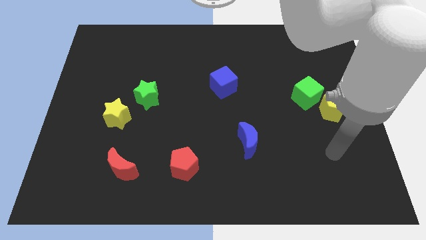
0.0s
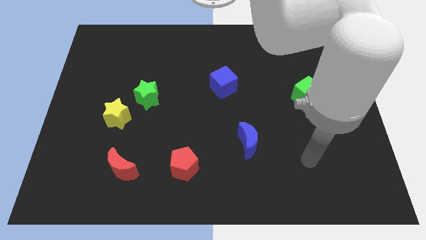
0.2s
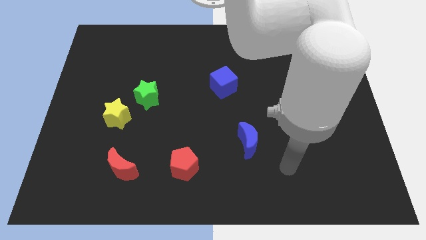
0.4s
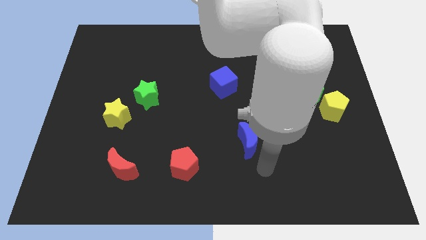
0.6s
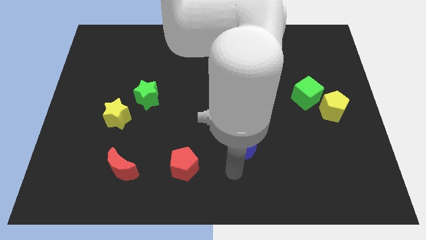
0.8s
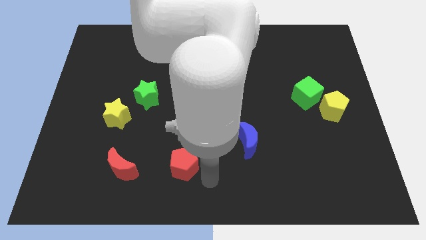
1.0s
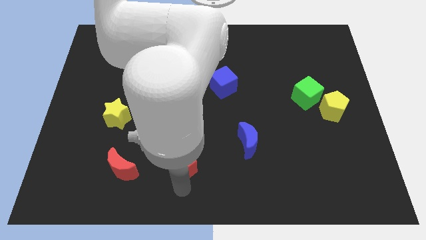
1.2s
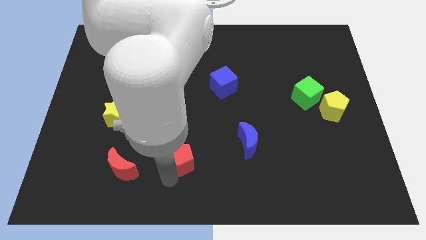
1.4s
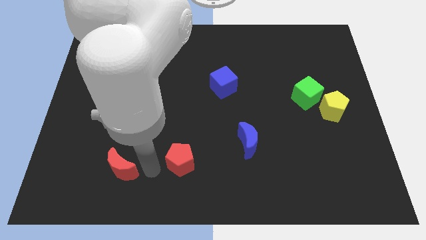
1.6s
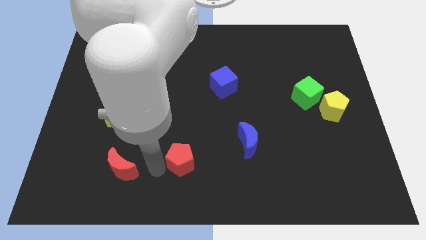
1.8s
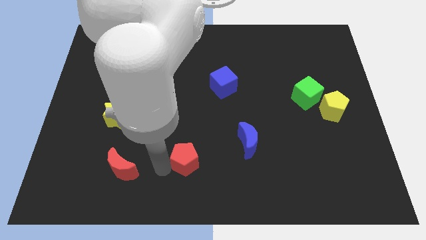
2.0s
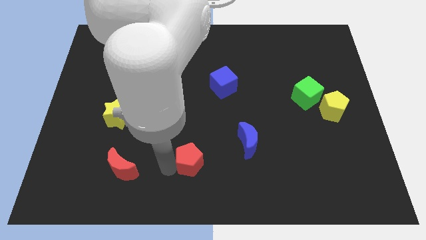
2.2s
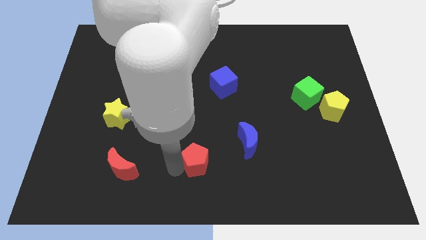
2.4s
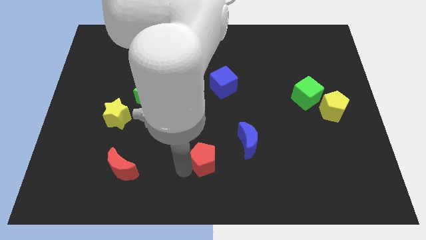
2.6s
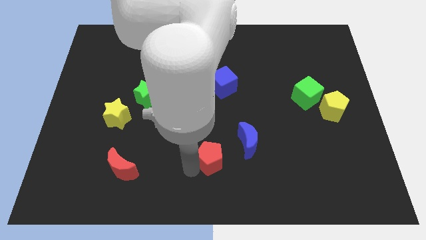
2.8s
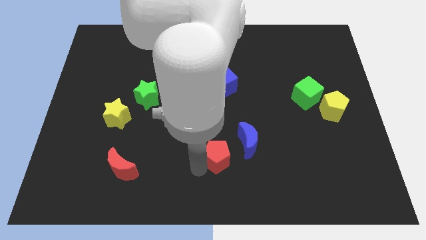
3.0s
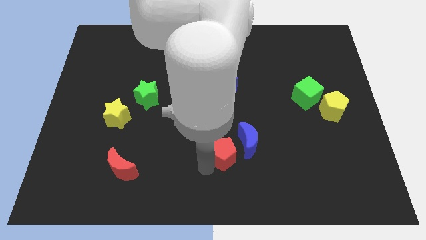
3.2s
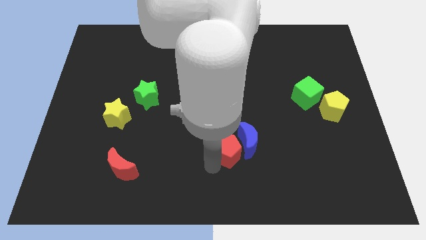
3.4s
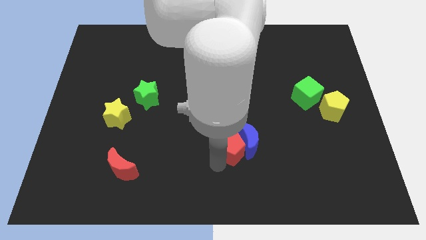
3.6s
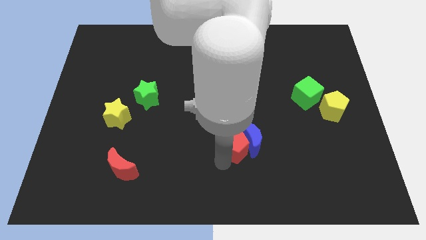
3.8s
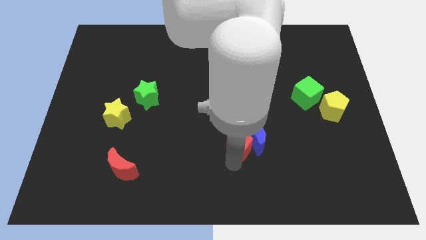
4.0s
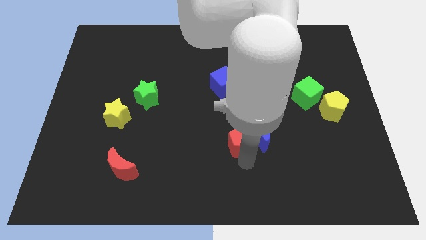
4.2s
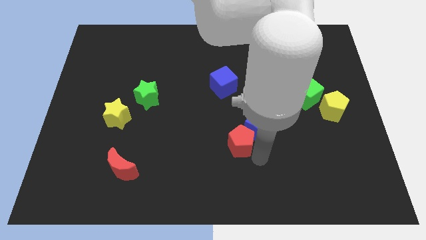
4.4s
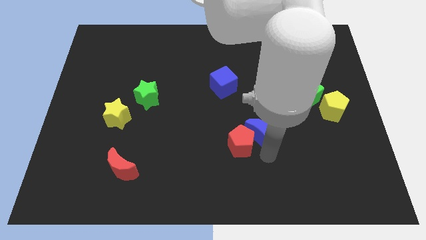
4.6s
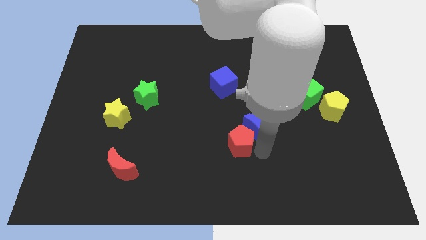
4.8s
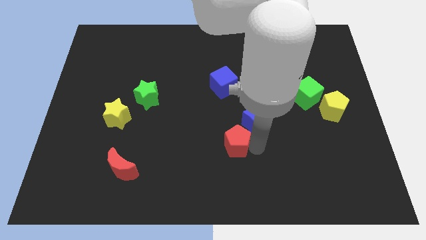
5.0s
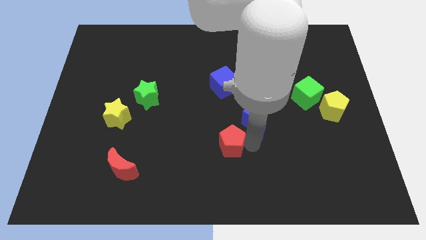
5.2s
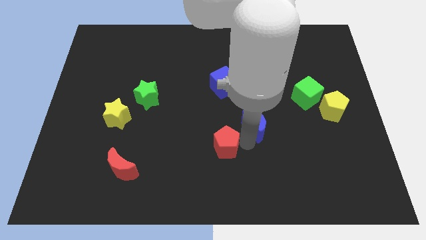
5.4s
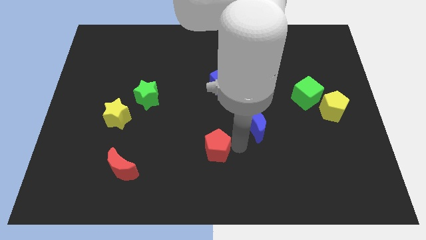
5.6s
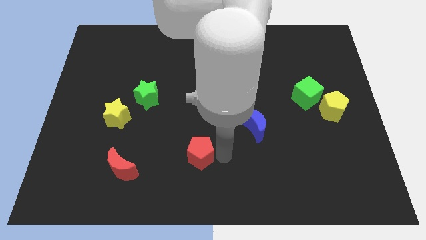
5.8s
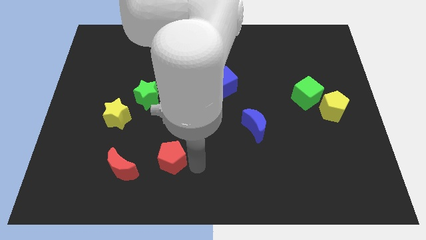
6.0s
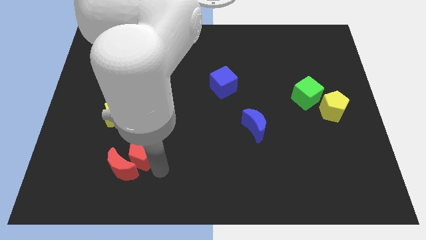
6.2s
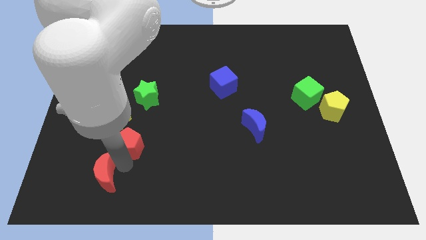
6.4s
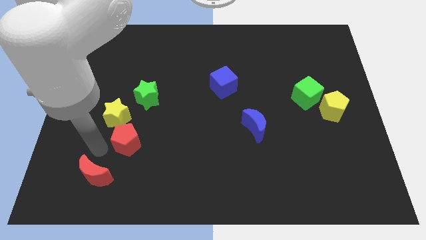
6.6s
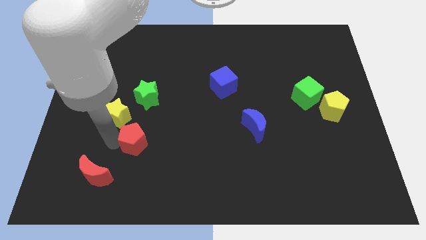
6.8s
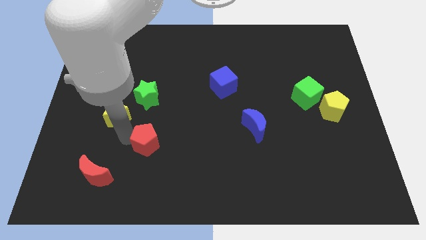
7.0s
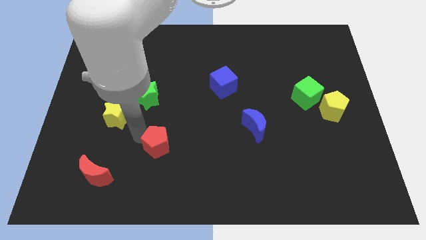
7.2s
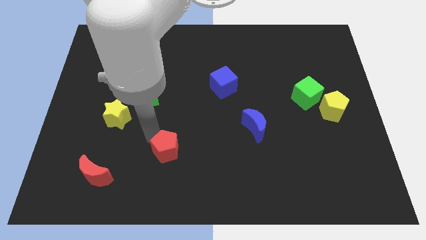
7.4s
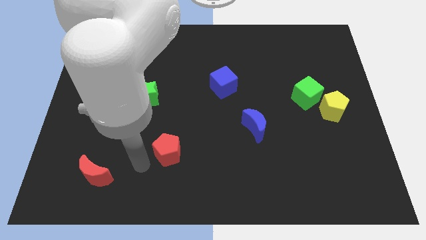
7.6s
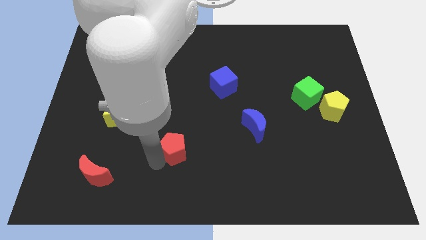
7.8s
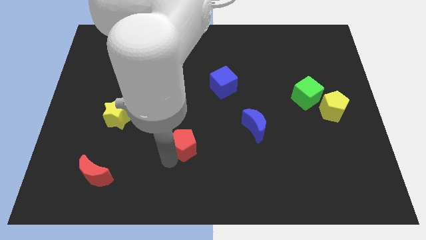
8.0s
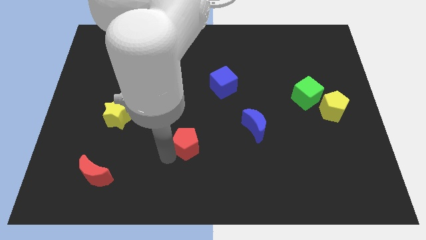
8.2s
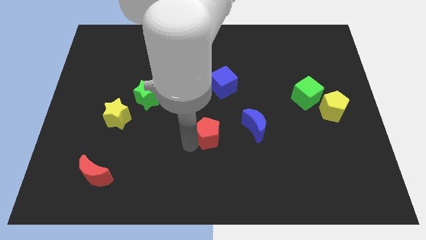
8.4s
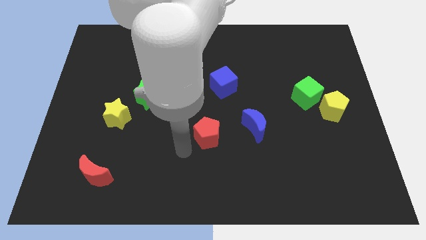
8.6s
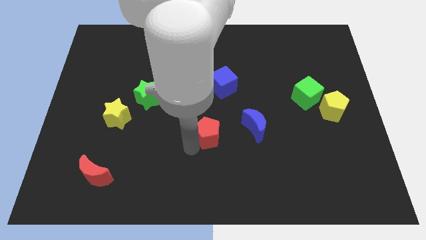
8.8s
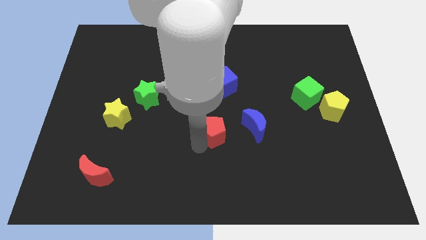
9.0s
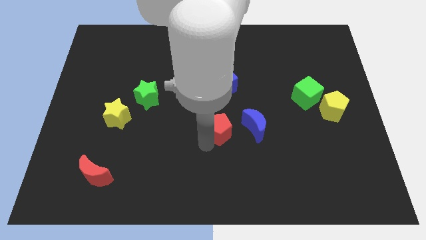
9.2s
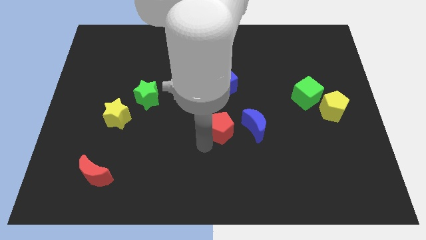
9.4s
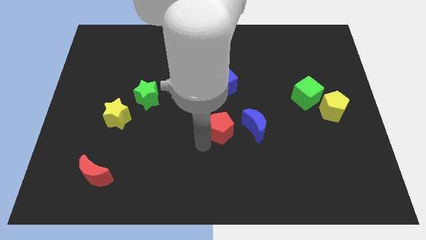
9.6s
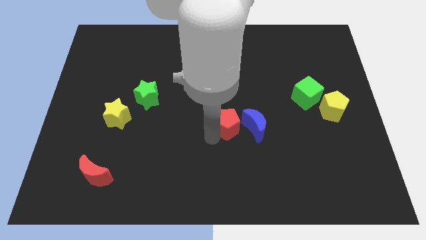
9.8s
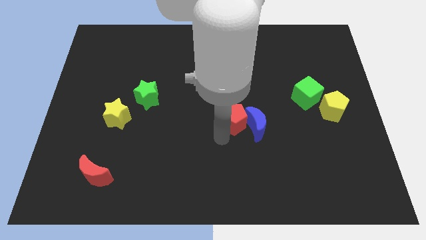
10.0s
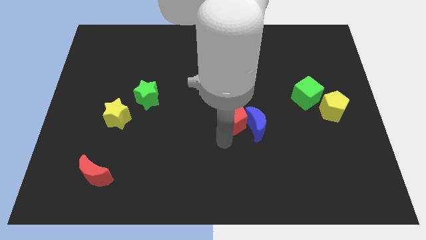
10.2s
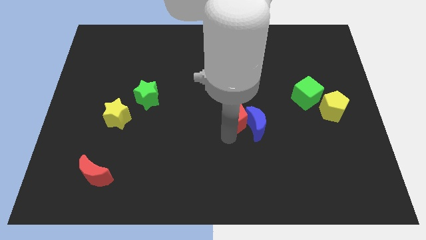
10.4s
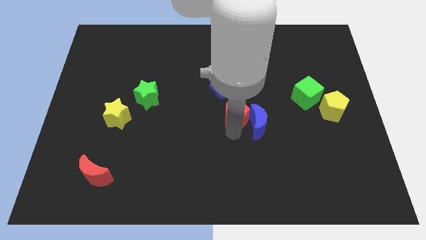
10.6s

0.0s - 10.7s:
slide the red pentagon to the bottom right side of the blue cube

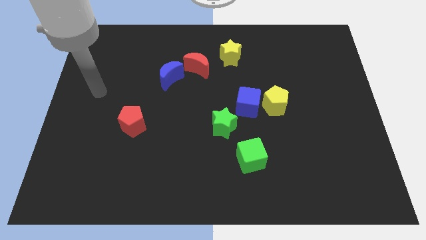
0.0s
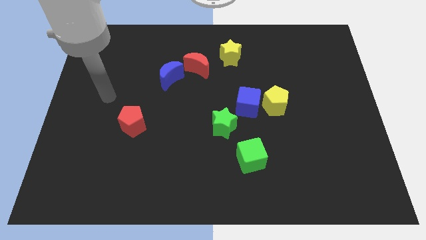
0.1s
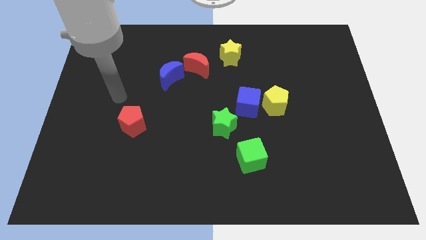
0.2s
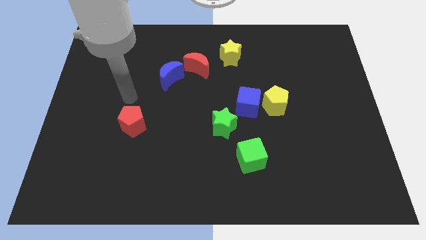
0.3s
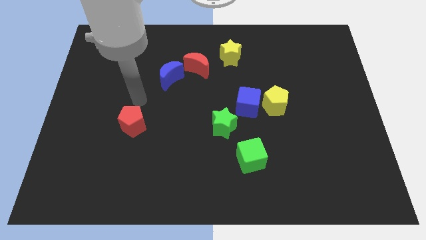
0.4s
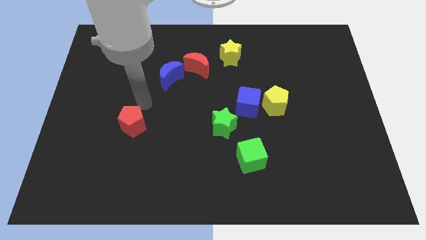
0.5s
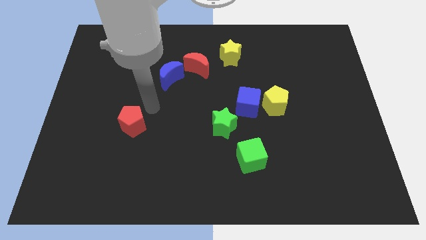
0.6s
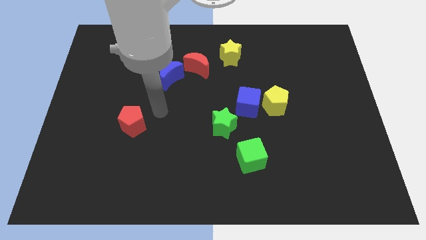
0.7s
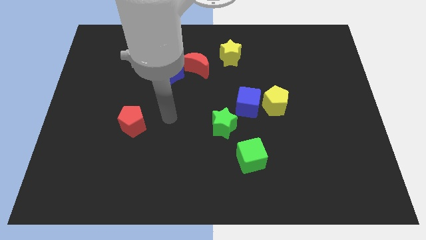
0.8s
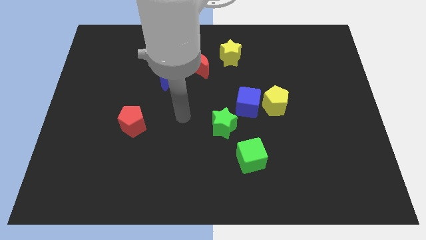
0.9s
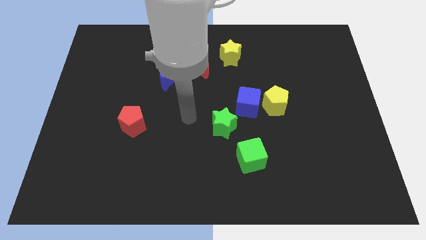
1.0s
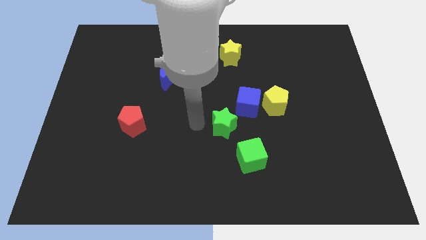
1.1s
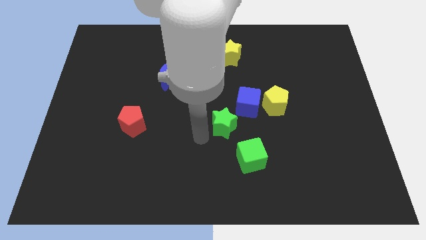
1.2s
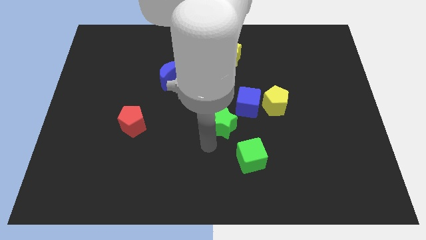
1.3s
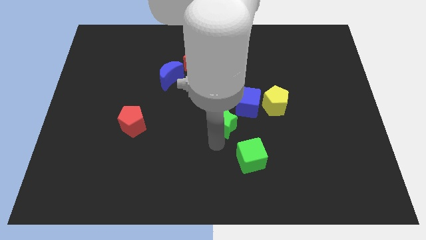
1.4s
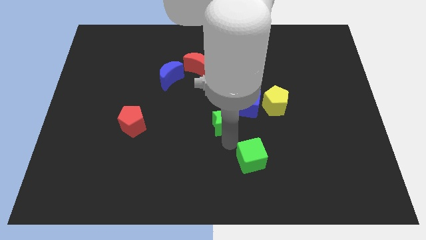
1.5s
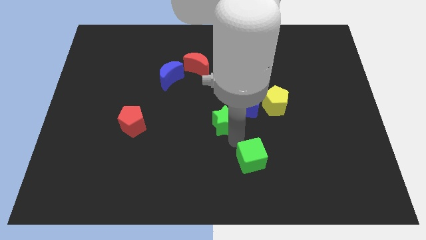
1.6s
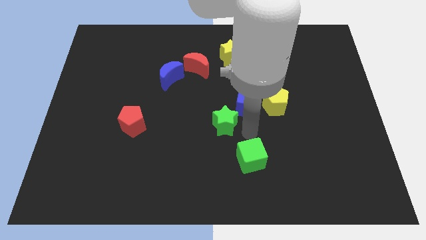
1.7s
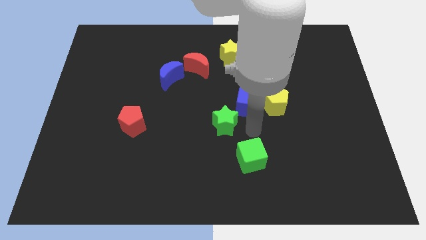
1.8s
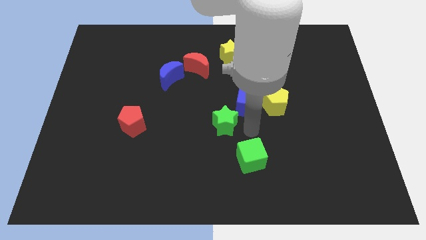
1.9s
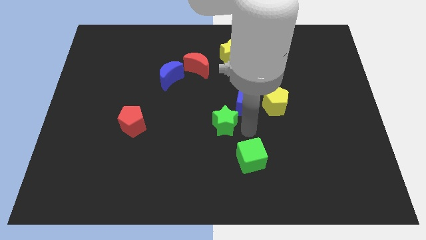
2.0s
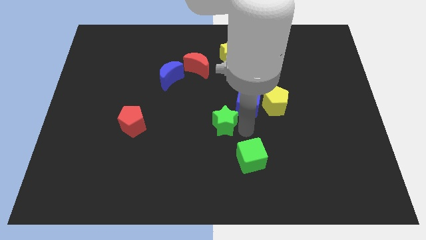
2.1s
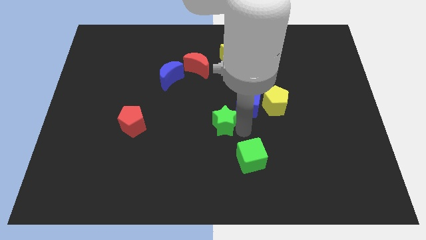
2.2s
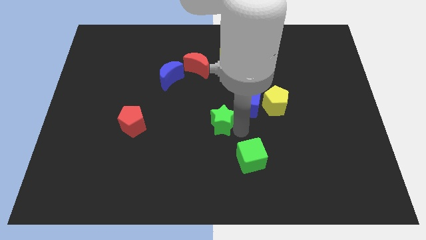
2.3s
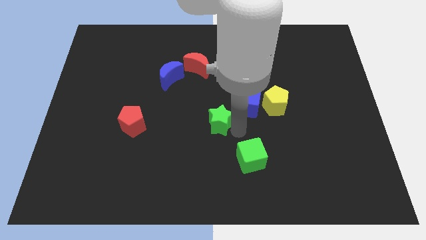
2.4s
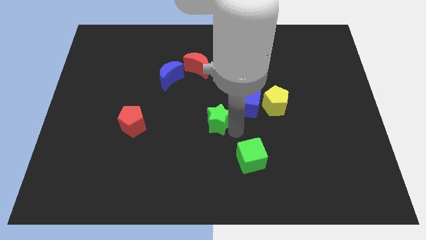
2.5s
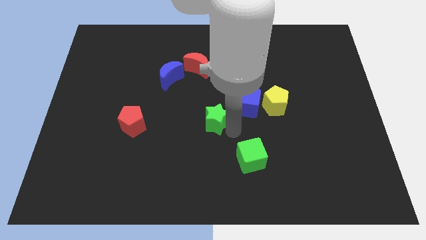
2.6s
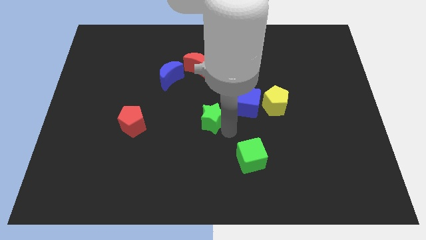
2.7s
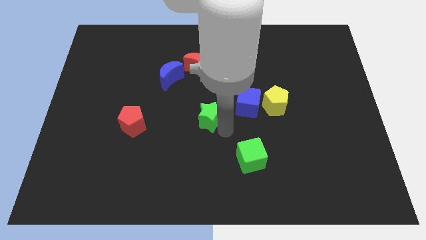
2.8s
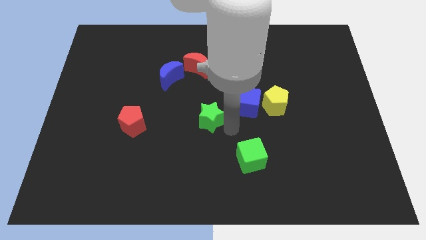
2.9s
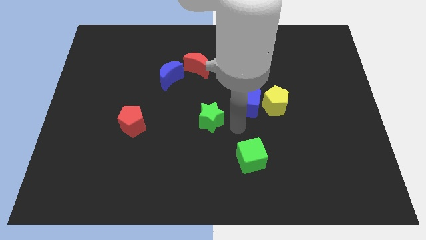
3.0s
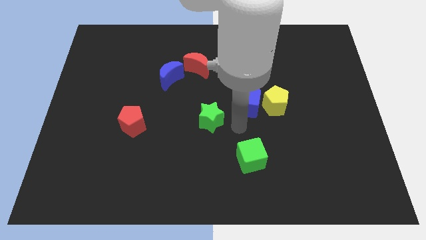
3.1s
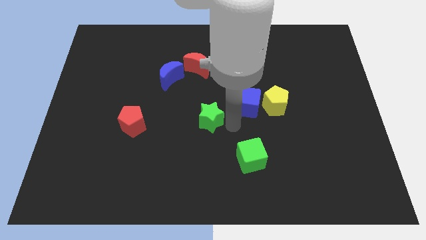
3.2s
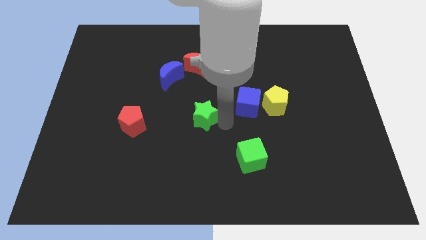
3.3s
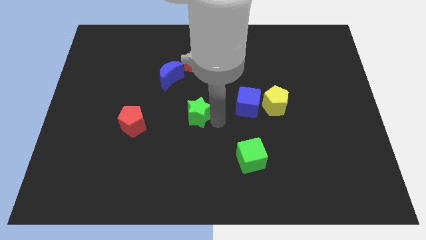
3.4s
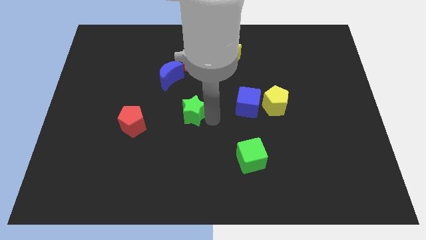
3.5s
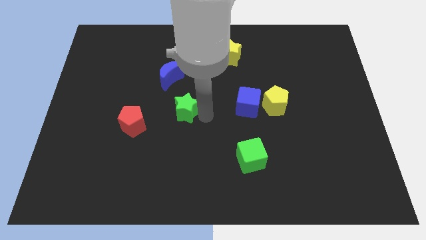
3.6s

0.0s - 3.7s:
move the green star below the blue moon
